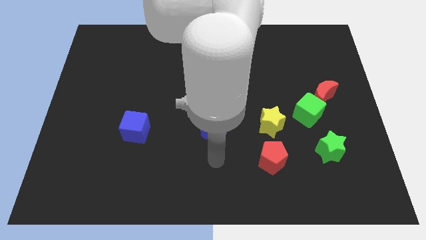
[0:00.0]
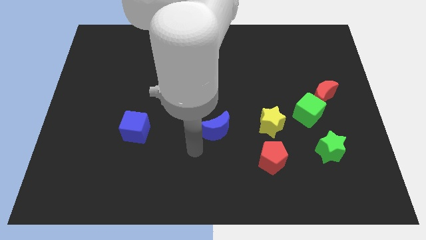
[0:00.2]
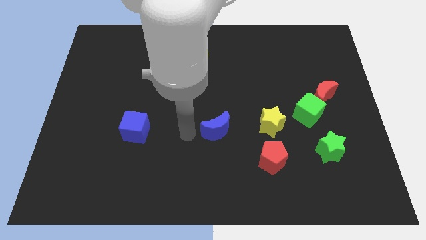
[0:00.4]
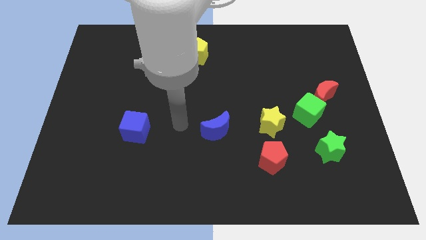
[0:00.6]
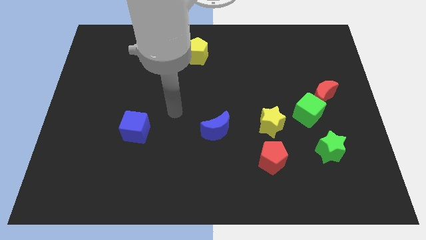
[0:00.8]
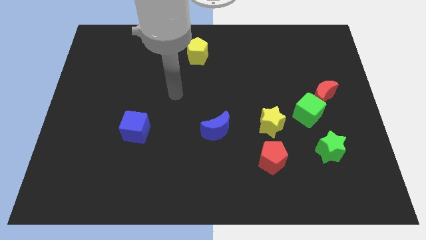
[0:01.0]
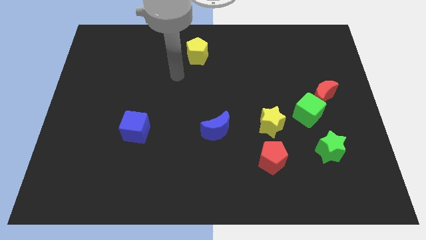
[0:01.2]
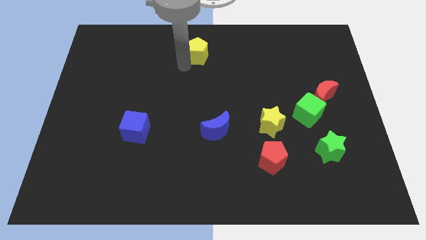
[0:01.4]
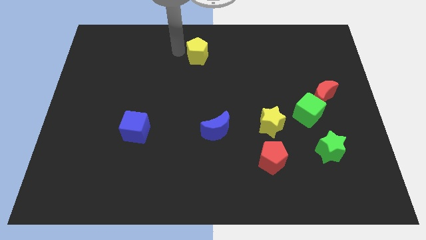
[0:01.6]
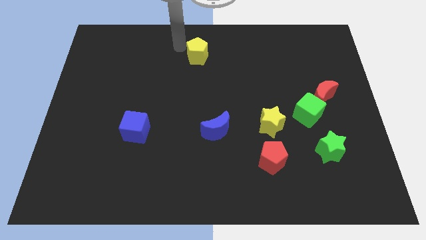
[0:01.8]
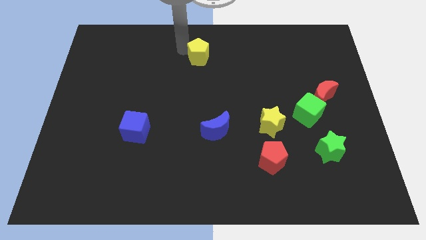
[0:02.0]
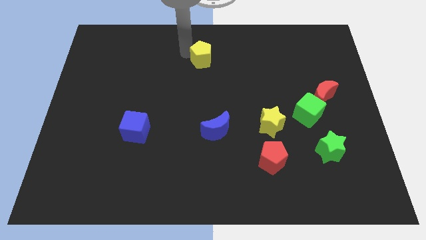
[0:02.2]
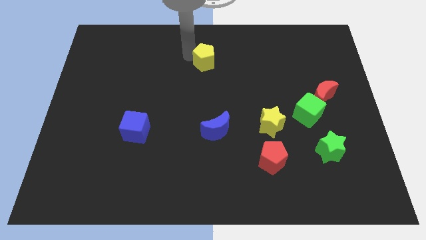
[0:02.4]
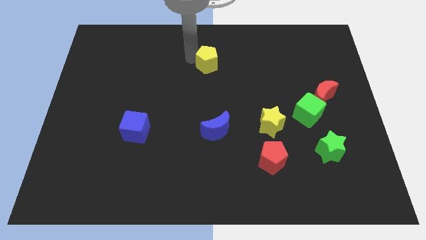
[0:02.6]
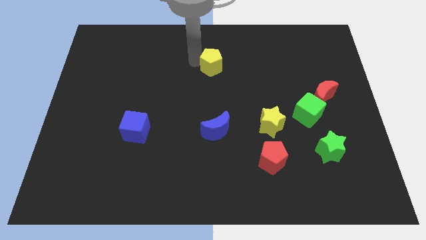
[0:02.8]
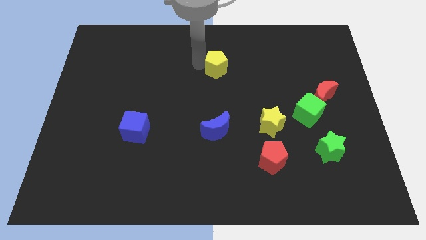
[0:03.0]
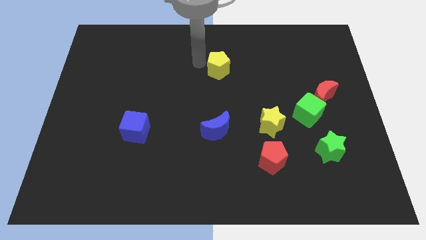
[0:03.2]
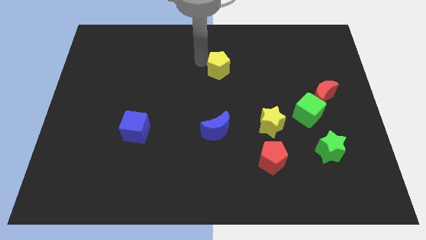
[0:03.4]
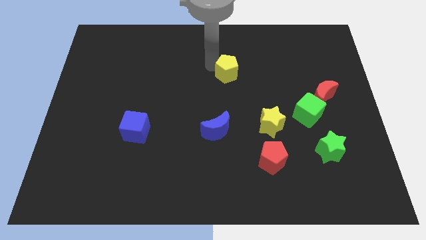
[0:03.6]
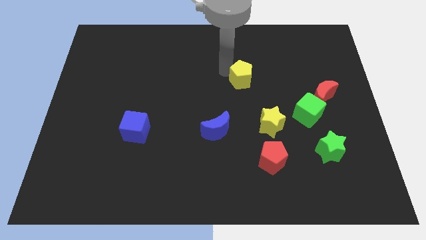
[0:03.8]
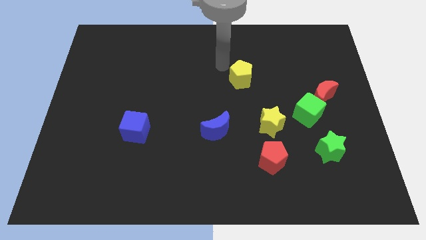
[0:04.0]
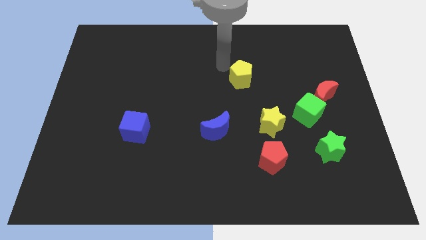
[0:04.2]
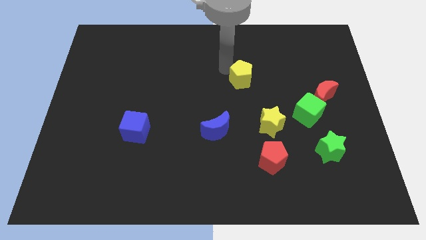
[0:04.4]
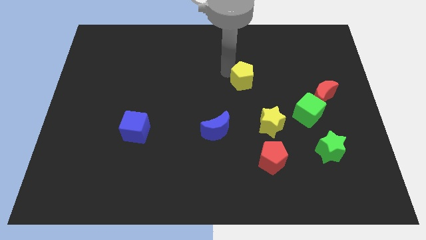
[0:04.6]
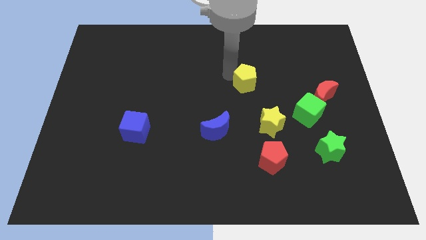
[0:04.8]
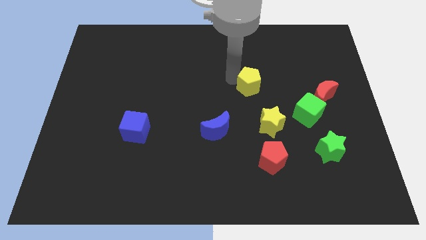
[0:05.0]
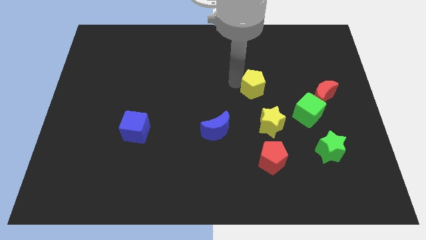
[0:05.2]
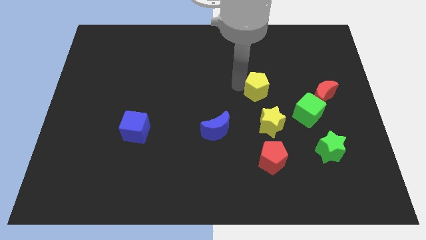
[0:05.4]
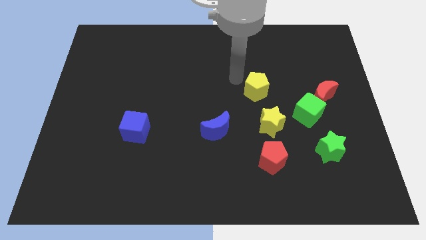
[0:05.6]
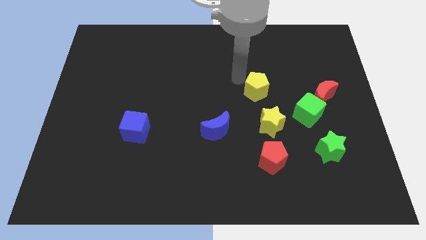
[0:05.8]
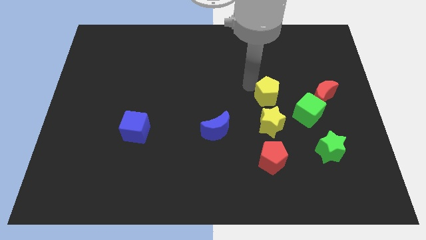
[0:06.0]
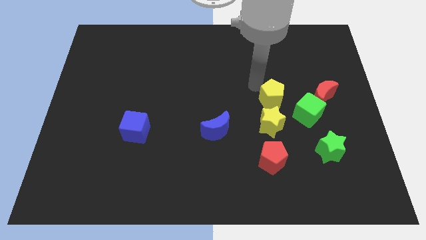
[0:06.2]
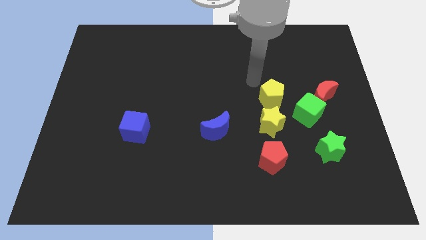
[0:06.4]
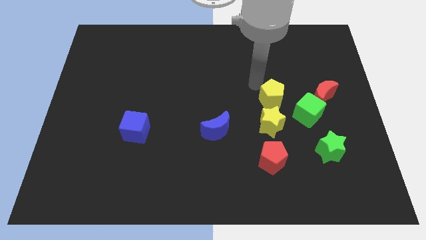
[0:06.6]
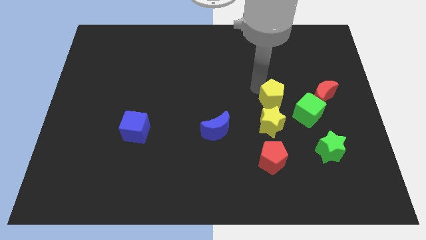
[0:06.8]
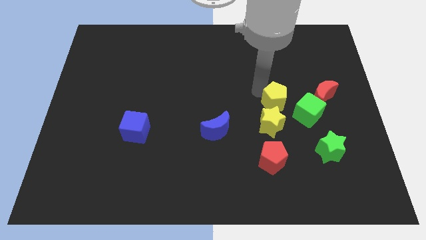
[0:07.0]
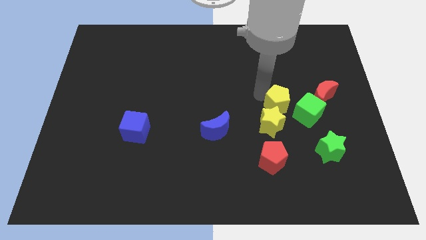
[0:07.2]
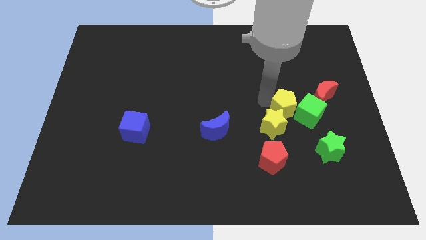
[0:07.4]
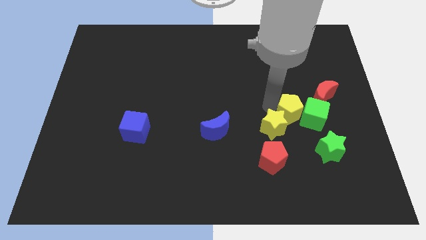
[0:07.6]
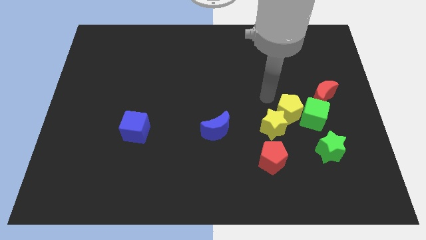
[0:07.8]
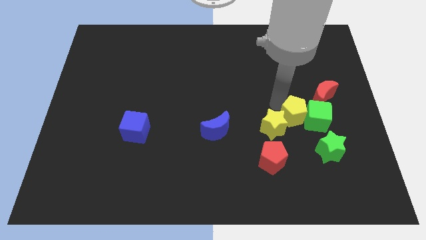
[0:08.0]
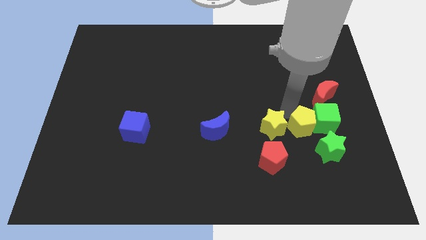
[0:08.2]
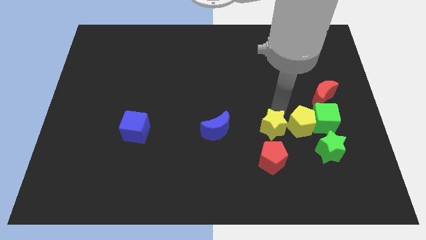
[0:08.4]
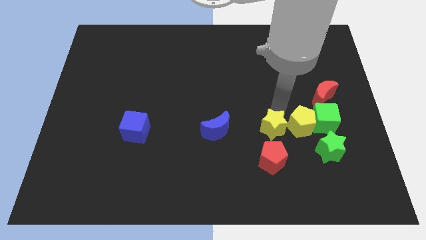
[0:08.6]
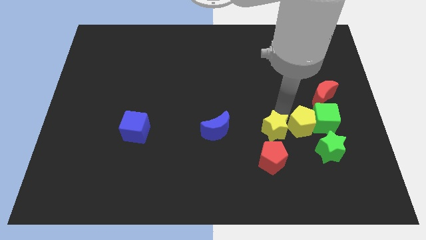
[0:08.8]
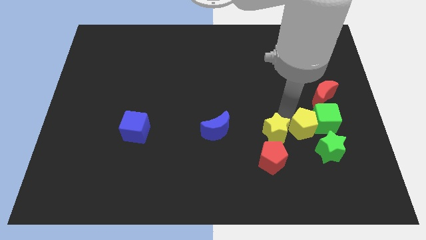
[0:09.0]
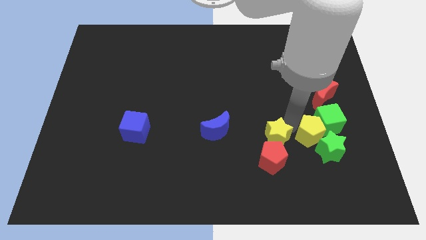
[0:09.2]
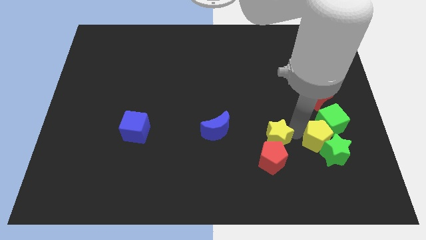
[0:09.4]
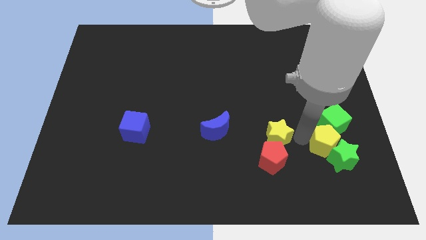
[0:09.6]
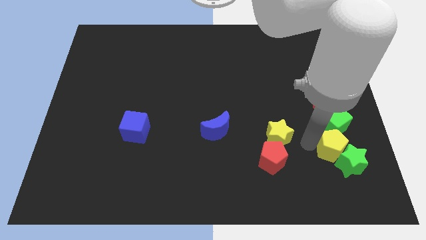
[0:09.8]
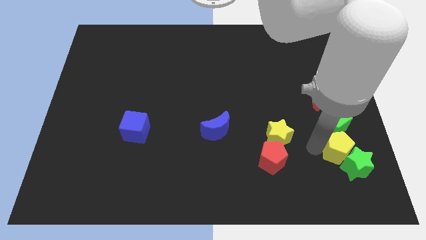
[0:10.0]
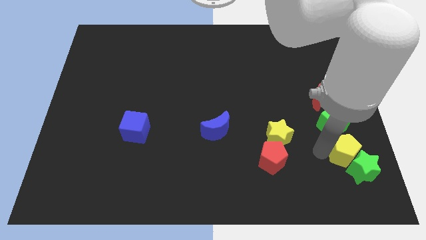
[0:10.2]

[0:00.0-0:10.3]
put the yellow pentagon diagonally down and to the right of the green cube

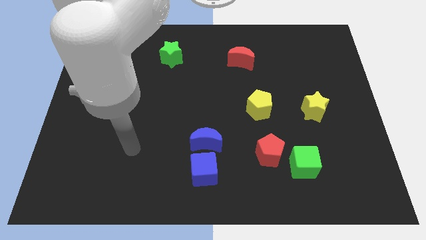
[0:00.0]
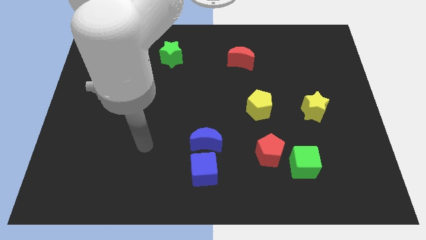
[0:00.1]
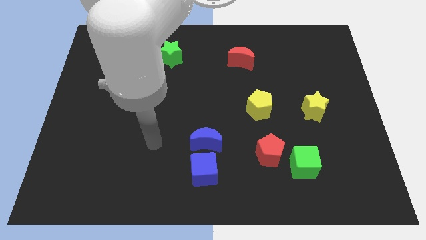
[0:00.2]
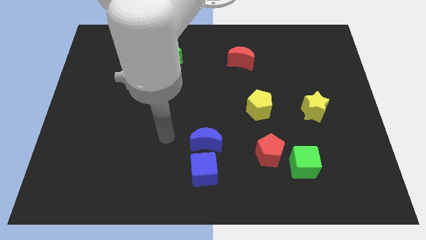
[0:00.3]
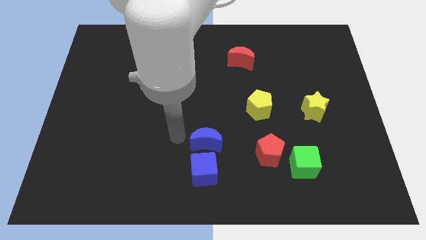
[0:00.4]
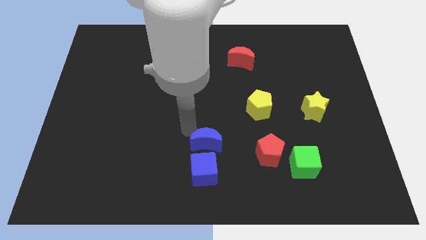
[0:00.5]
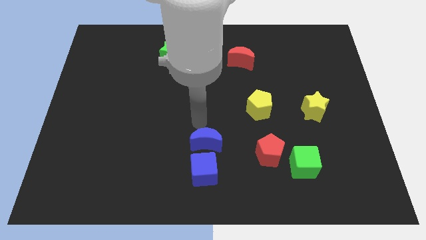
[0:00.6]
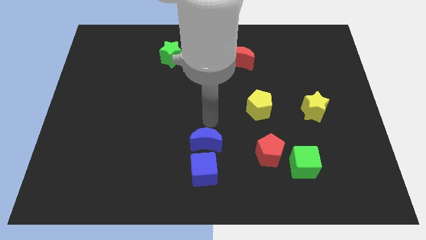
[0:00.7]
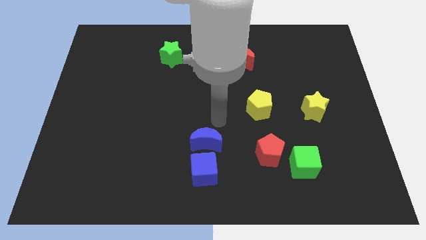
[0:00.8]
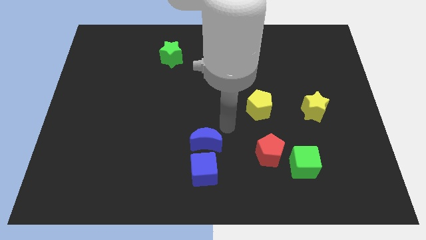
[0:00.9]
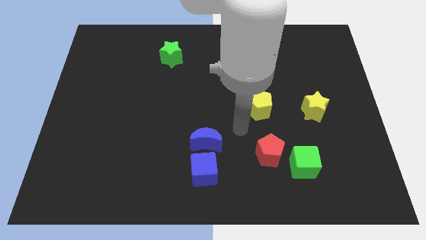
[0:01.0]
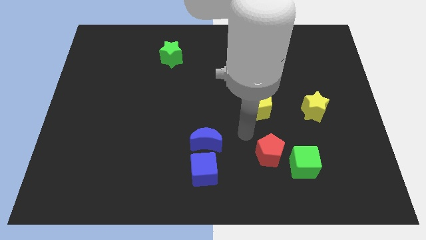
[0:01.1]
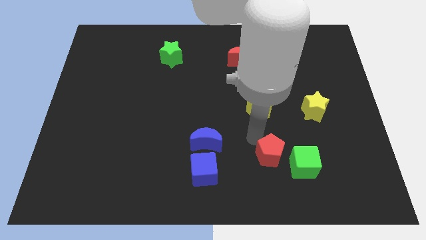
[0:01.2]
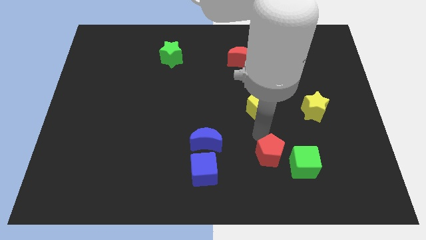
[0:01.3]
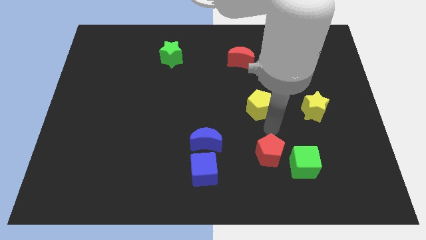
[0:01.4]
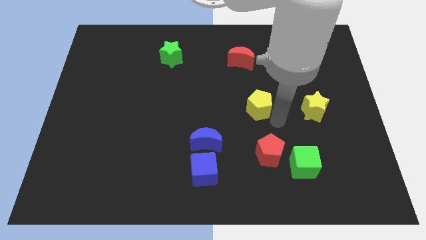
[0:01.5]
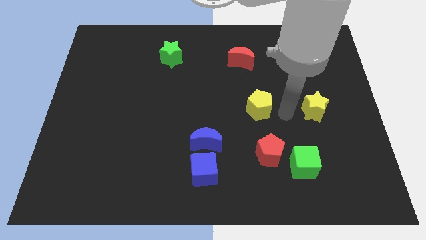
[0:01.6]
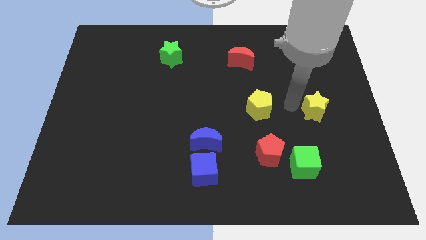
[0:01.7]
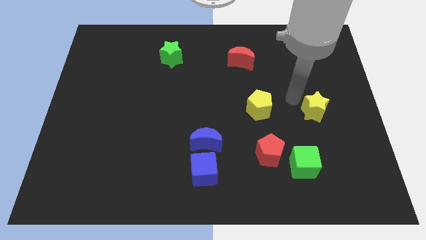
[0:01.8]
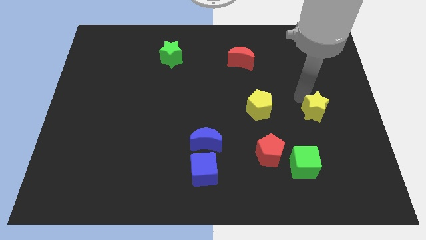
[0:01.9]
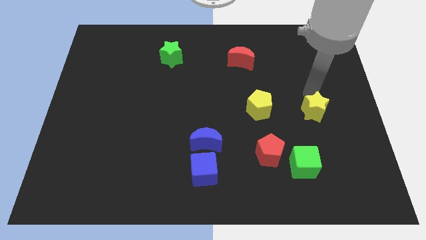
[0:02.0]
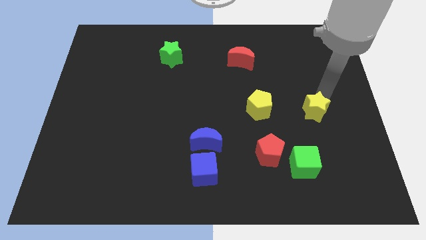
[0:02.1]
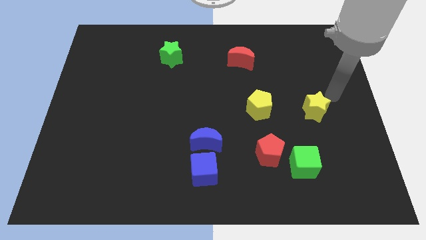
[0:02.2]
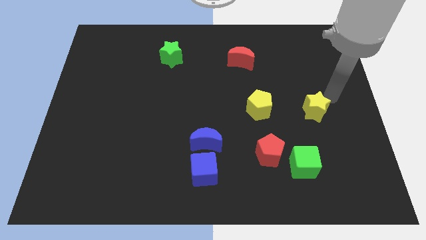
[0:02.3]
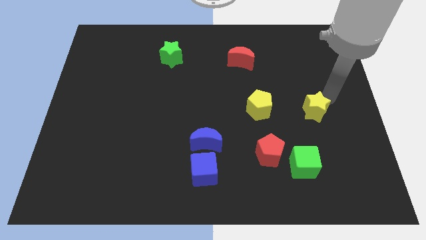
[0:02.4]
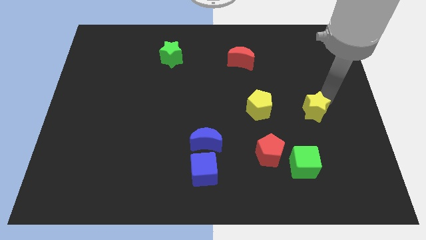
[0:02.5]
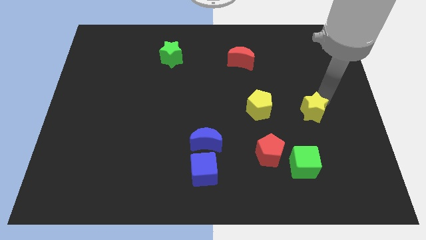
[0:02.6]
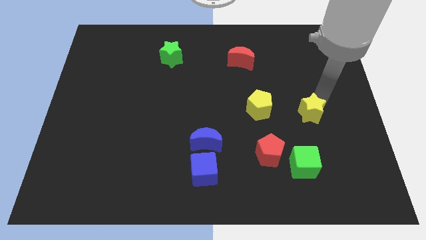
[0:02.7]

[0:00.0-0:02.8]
slide the yellow star to the top side of the green cube
